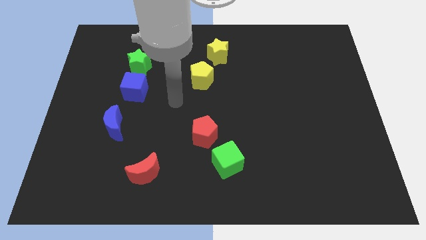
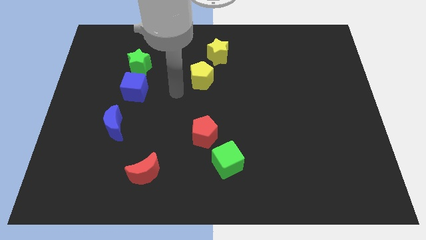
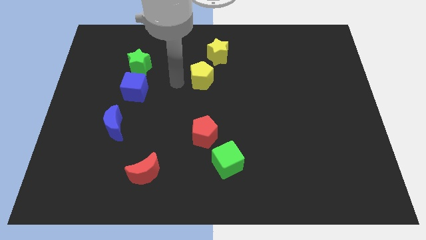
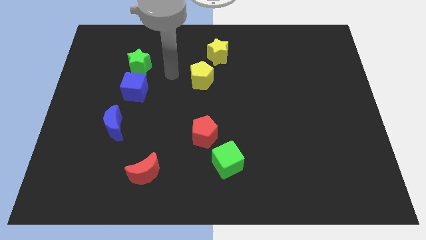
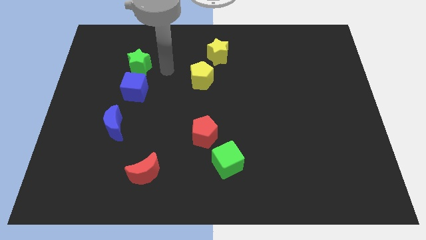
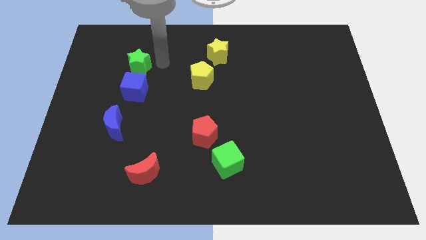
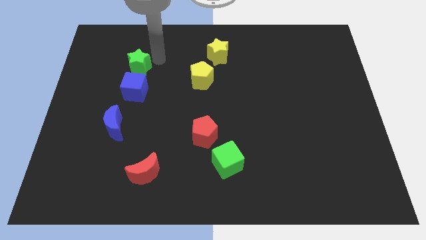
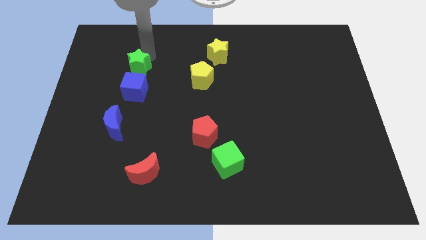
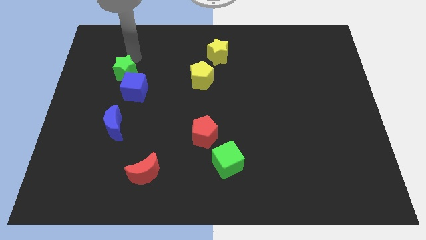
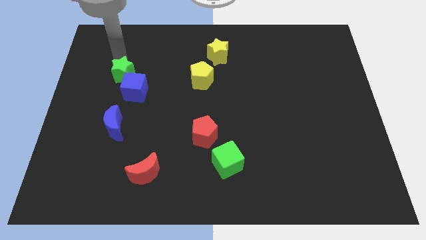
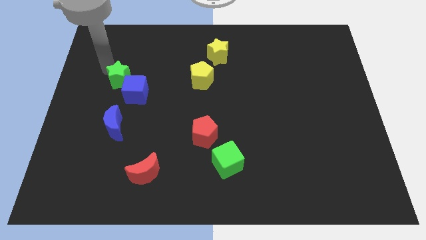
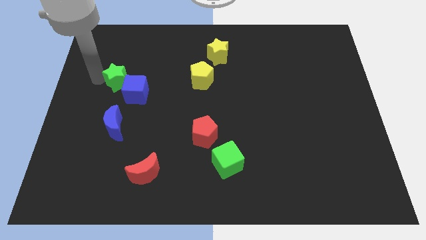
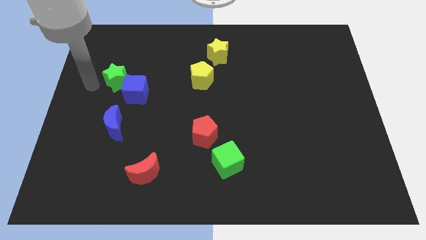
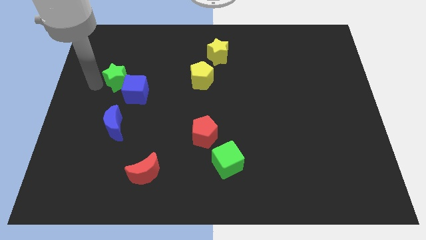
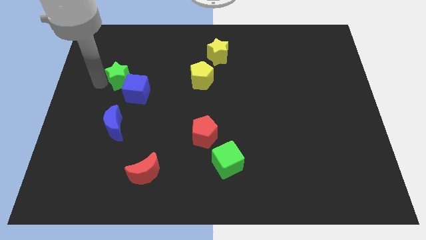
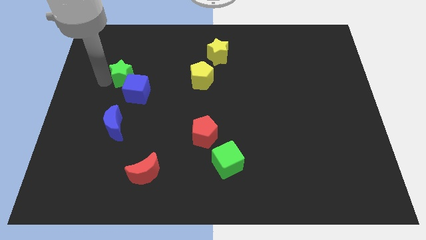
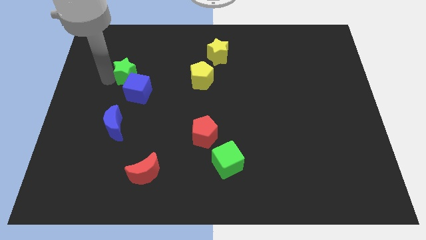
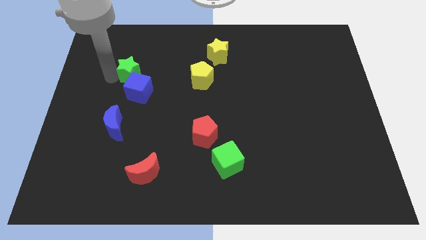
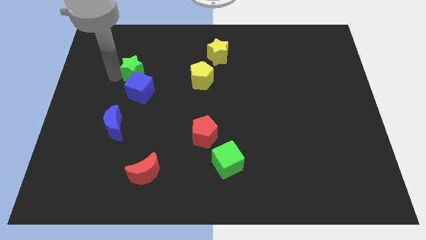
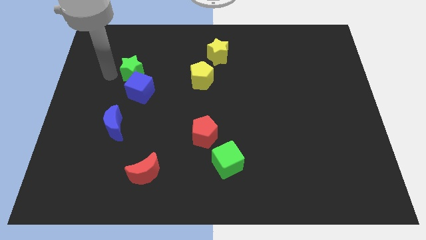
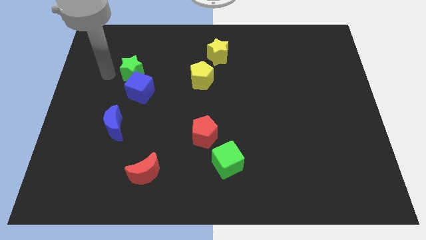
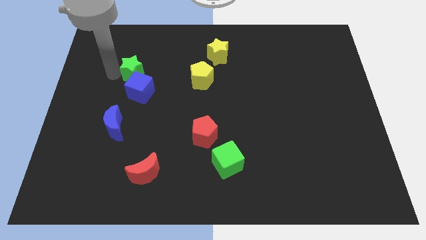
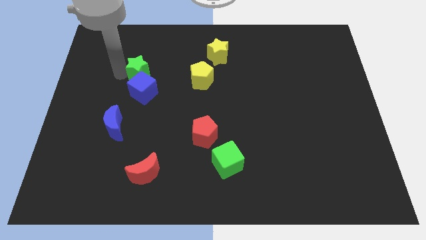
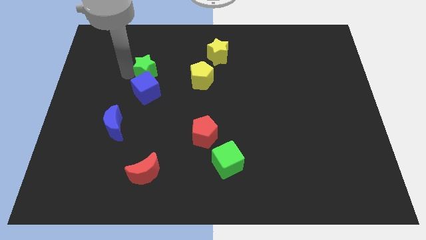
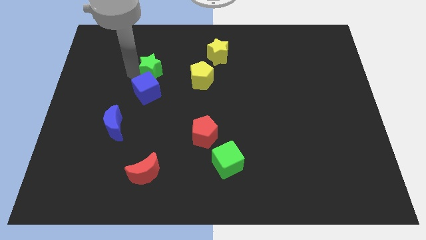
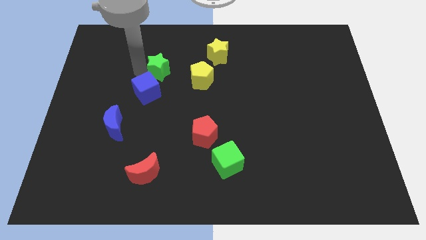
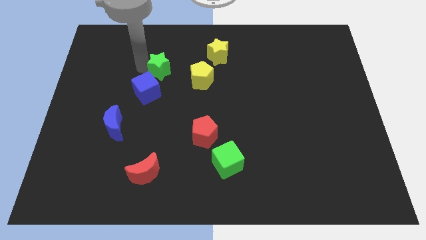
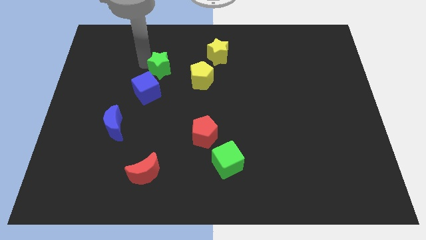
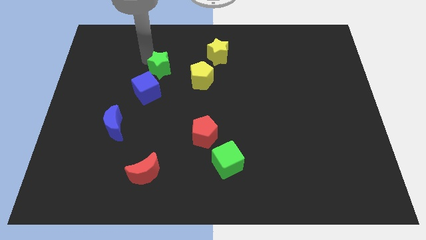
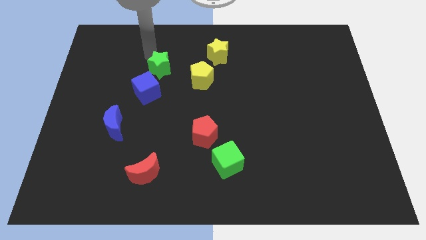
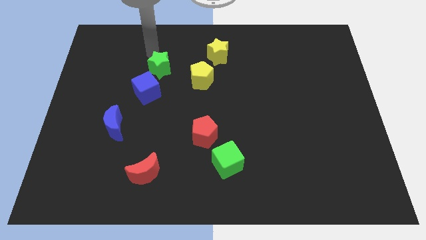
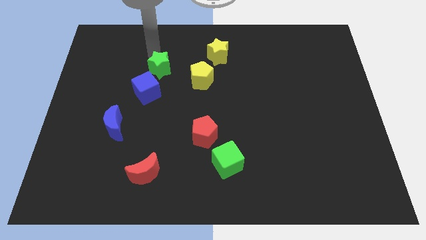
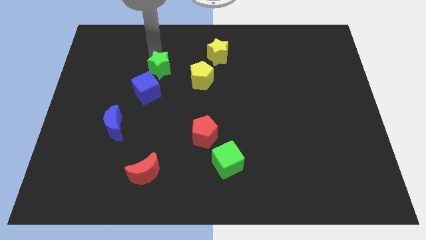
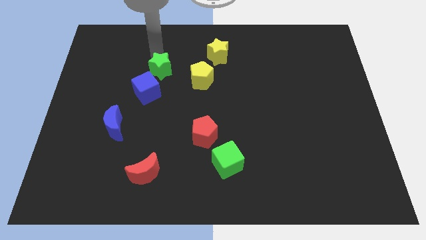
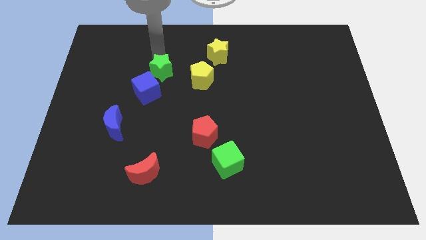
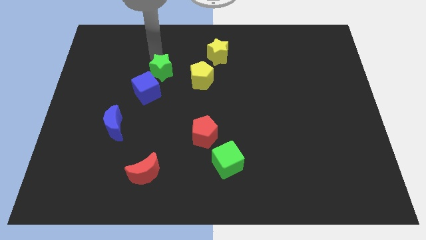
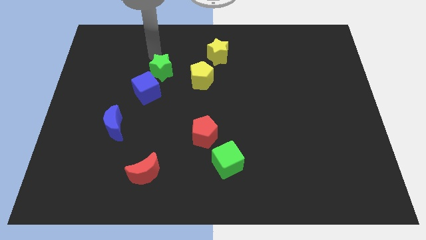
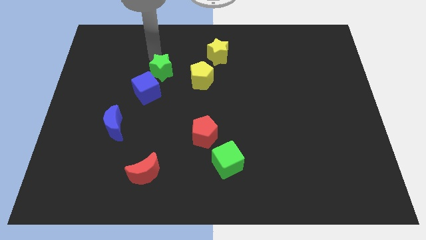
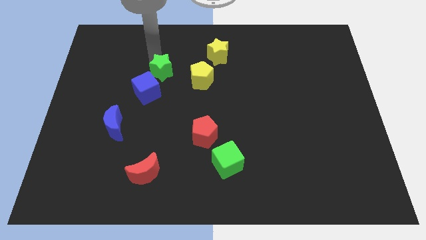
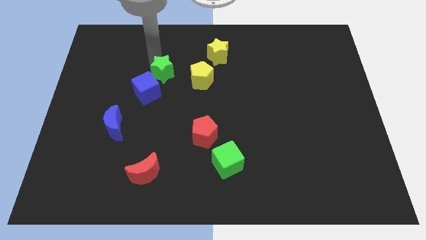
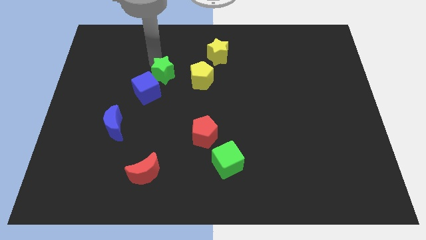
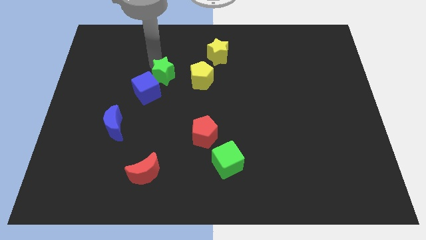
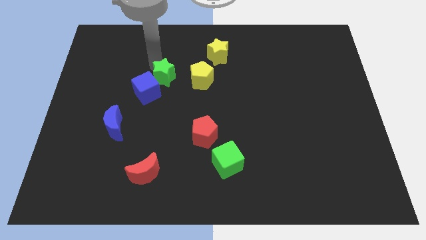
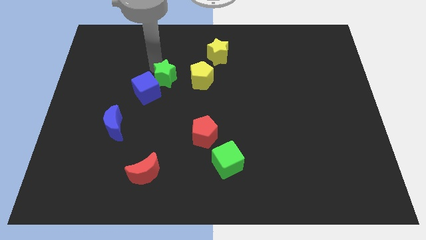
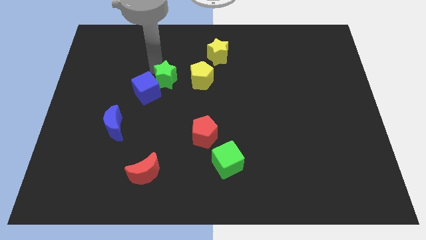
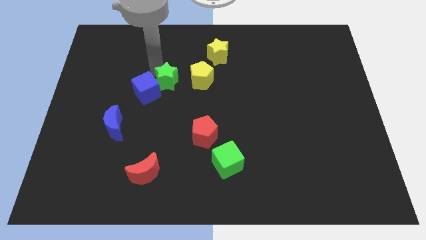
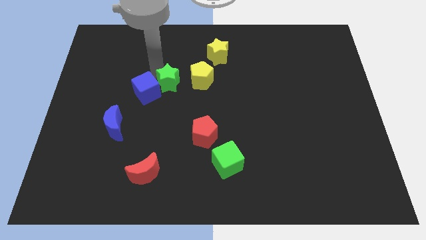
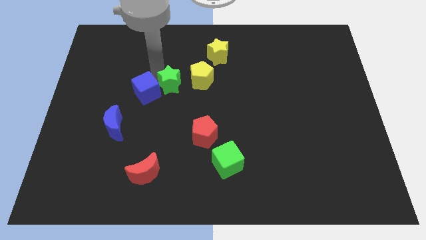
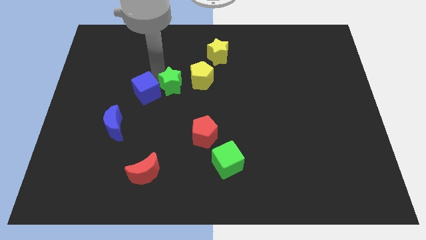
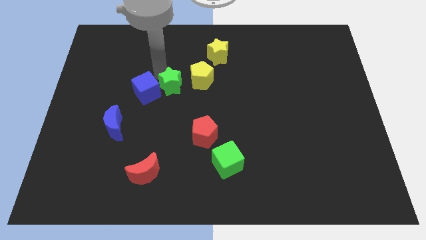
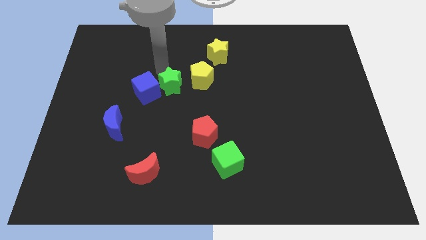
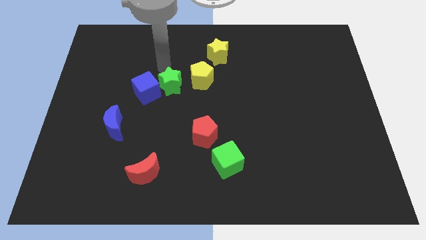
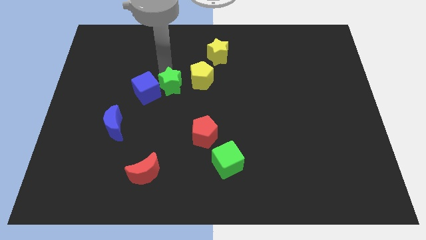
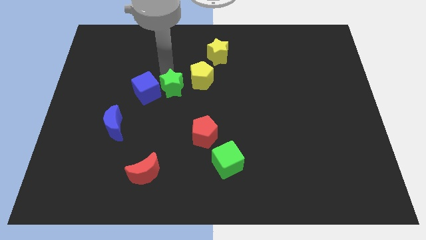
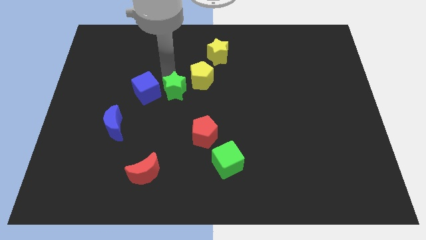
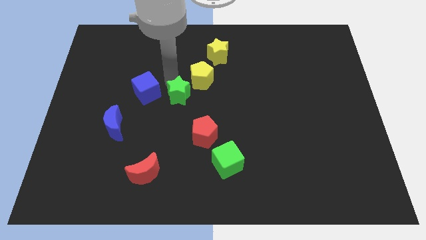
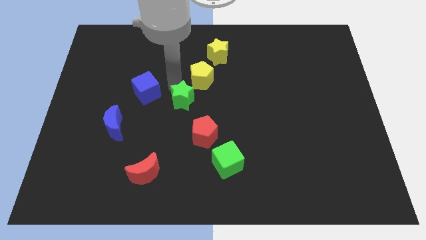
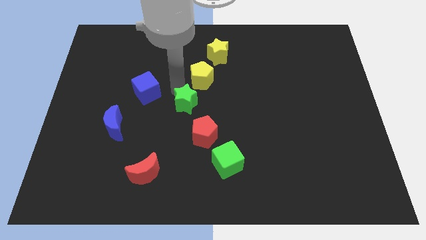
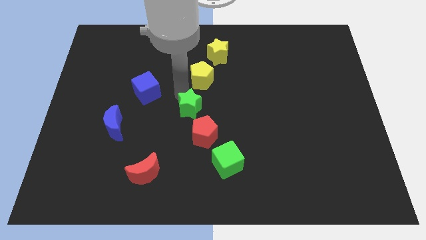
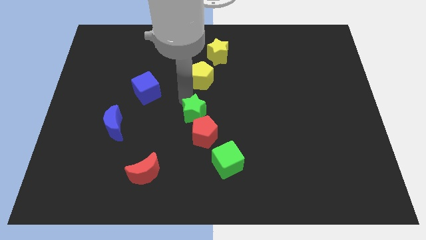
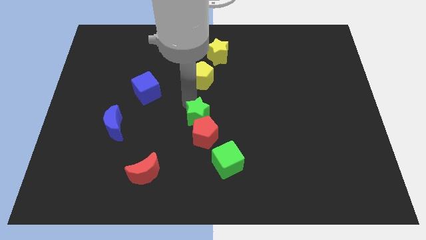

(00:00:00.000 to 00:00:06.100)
move the green star to the red pentagon

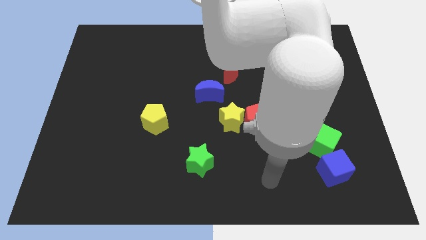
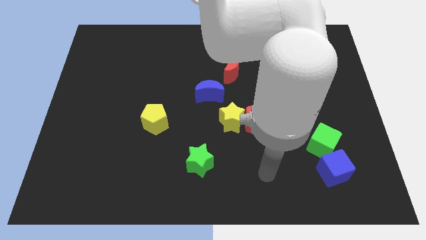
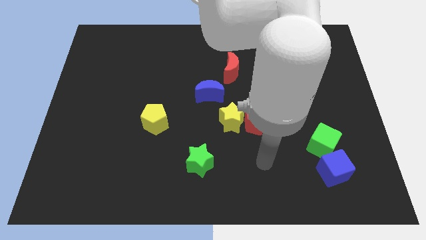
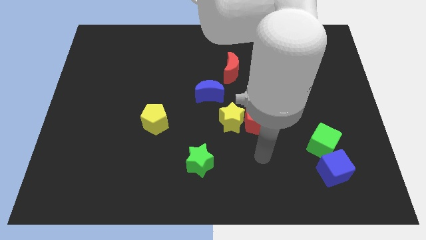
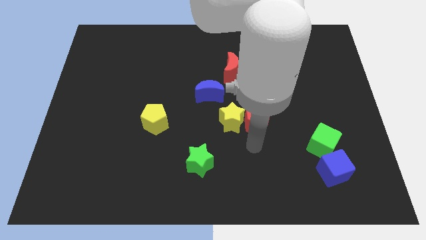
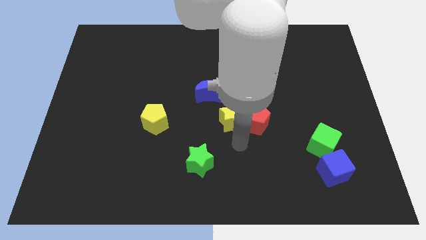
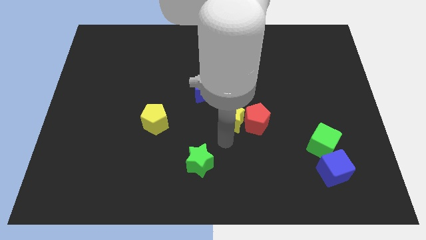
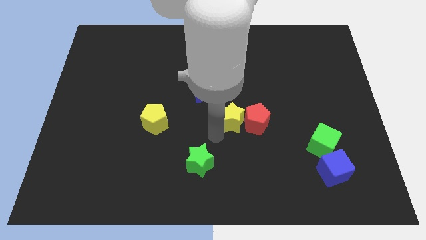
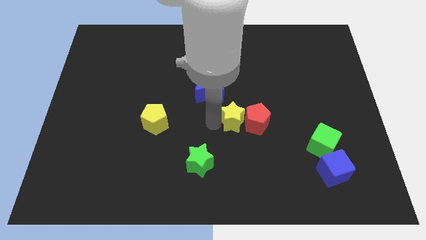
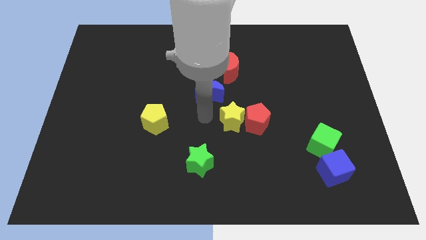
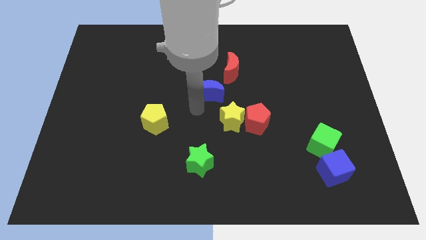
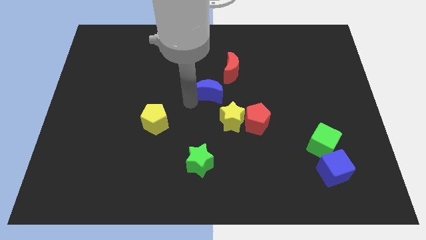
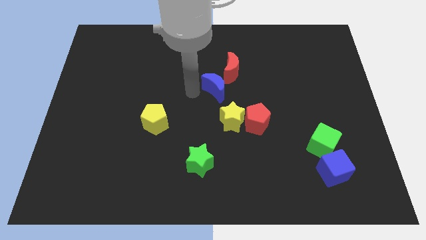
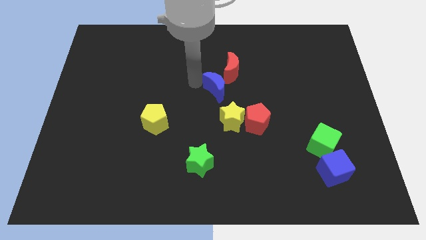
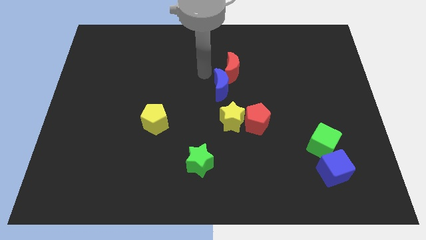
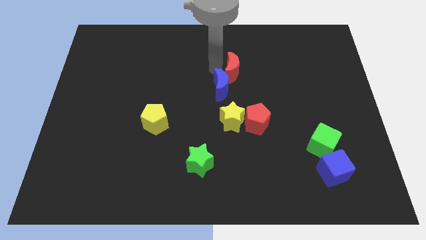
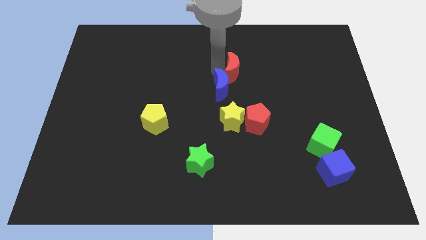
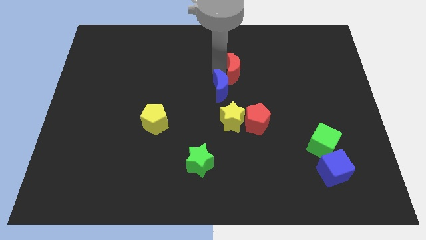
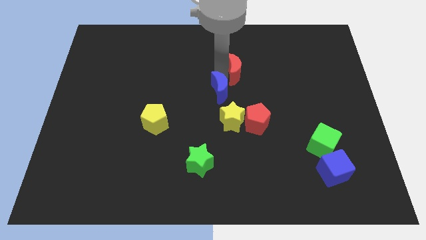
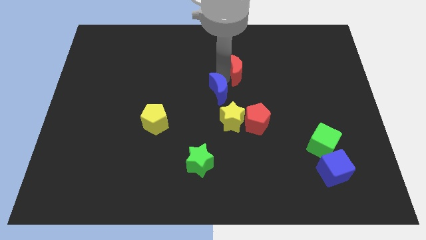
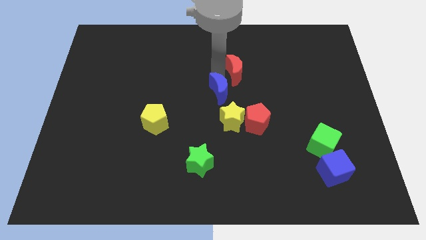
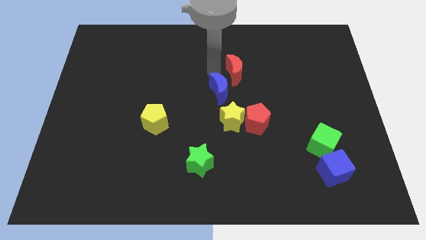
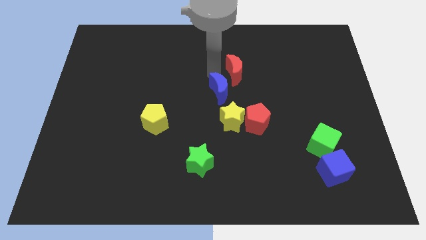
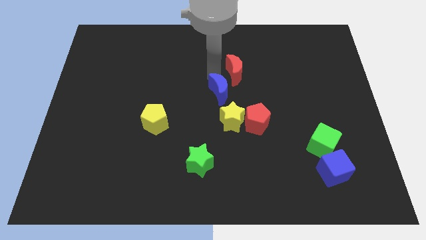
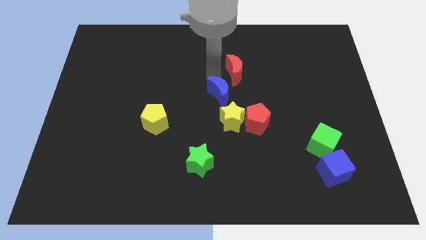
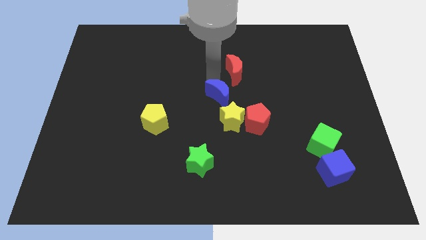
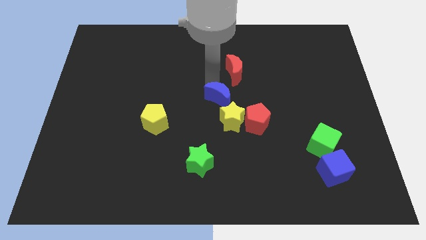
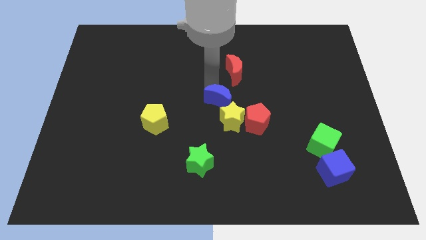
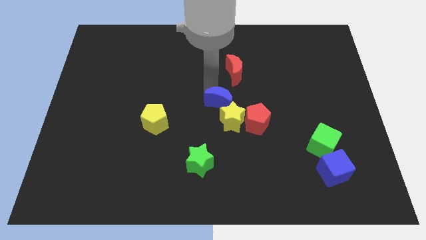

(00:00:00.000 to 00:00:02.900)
push the blue moon towards the yellow star
